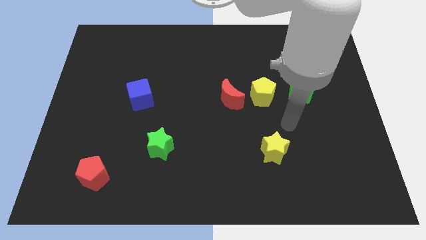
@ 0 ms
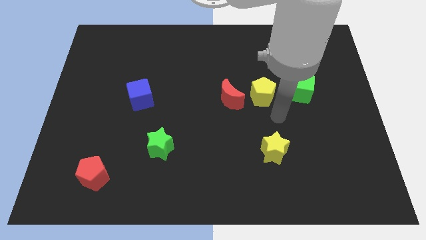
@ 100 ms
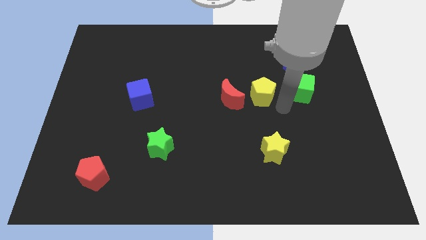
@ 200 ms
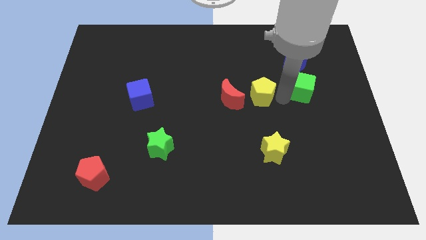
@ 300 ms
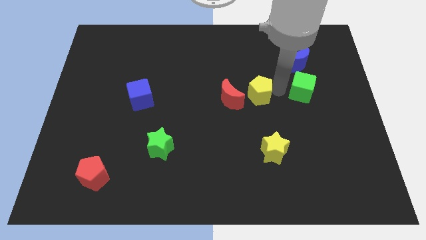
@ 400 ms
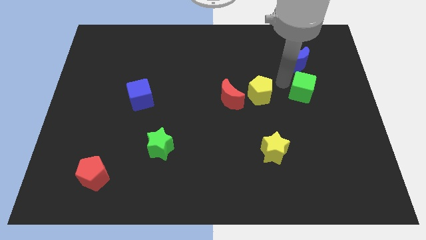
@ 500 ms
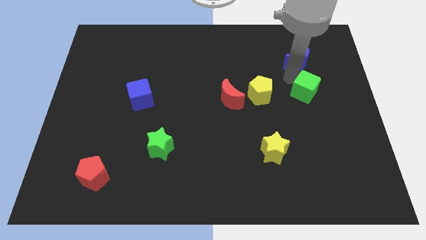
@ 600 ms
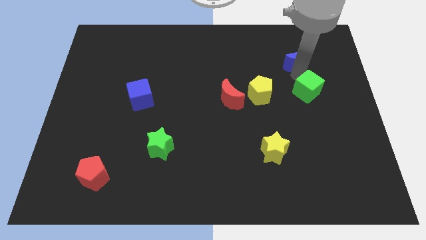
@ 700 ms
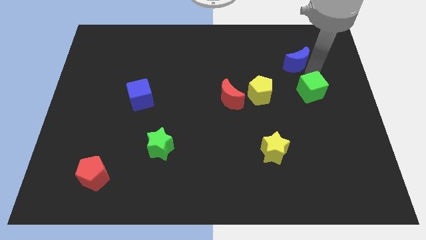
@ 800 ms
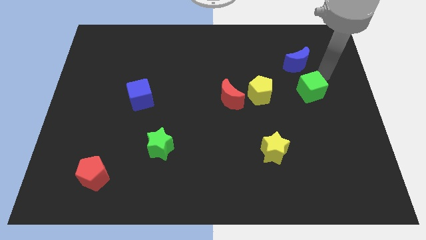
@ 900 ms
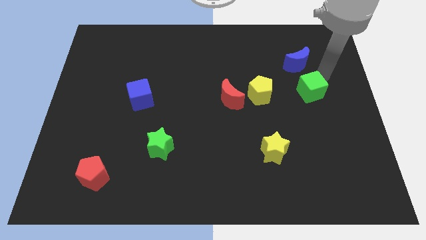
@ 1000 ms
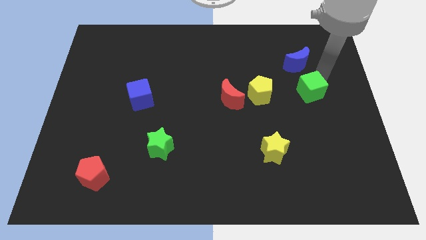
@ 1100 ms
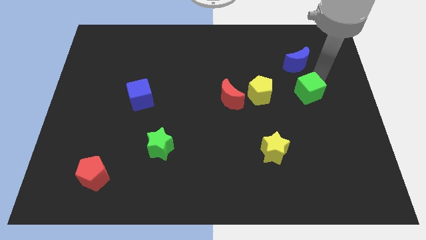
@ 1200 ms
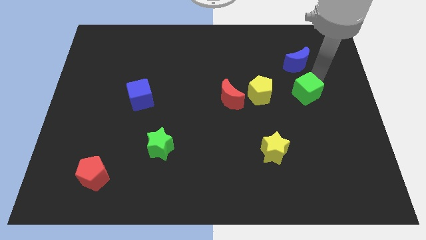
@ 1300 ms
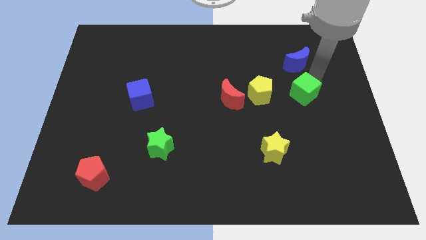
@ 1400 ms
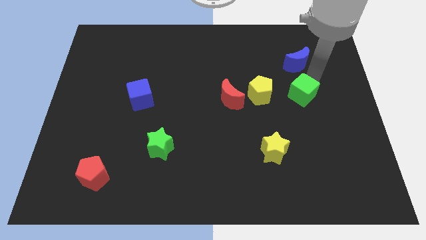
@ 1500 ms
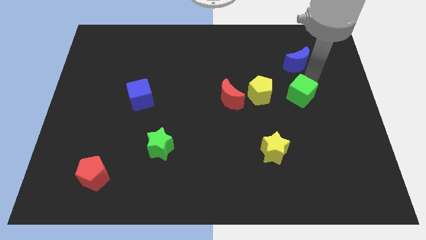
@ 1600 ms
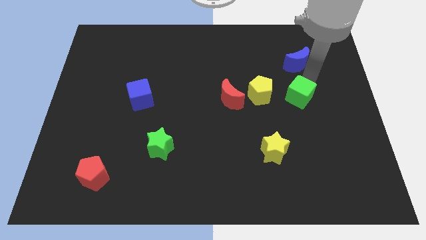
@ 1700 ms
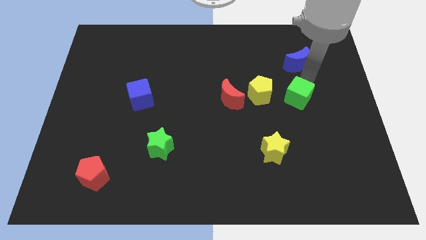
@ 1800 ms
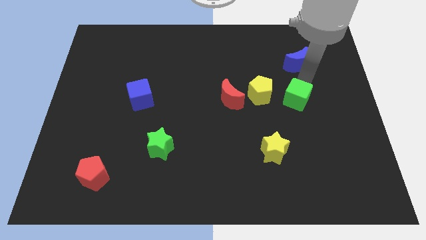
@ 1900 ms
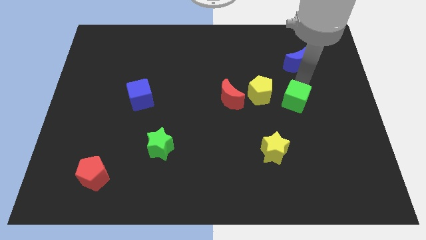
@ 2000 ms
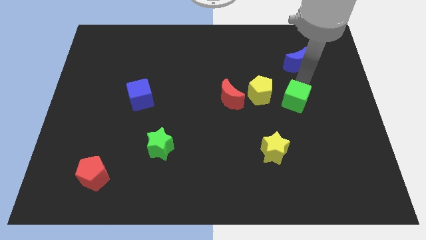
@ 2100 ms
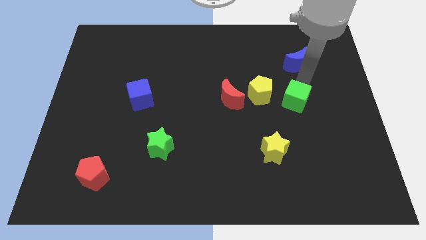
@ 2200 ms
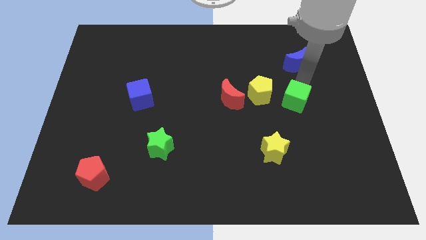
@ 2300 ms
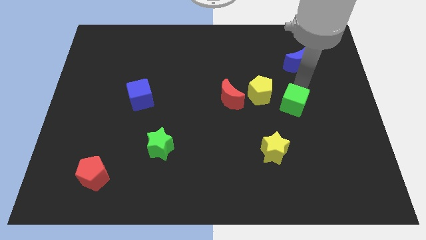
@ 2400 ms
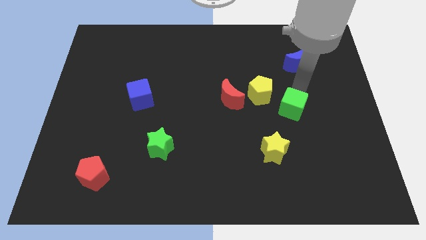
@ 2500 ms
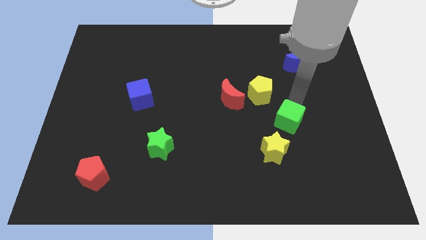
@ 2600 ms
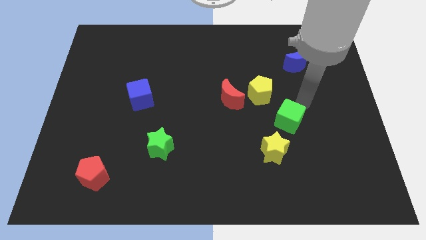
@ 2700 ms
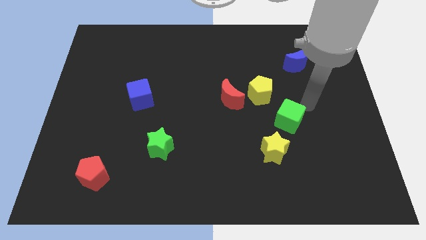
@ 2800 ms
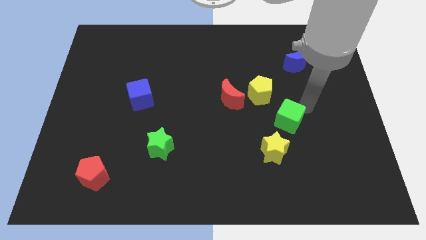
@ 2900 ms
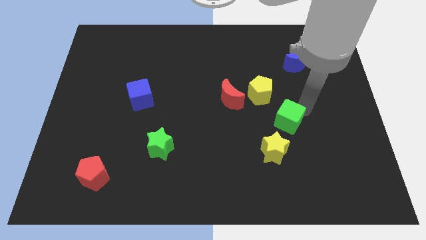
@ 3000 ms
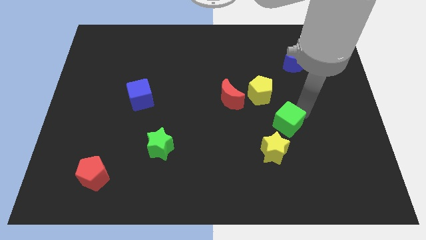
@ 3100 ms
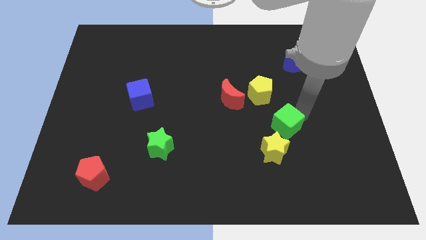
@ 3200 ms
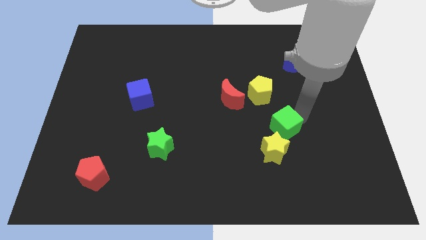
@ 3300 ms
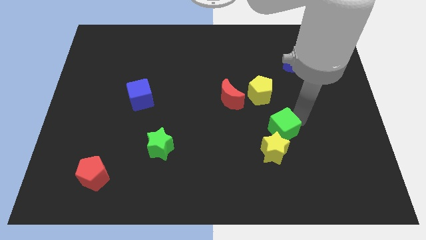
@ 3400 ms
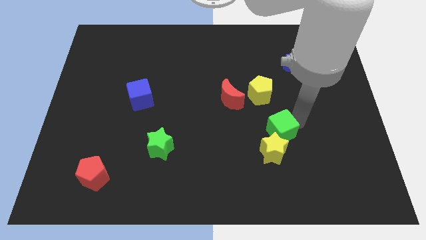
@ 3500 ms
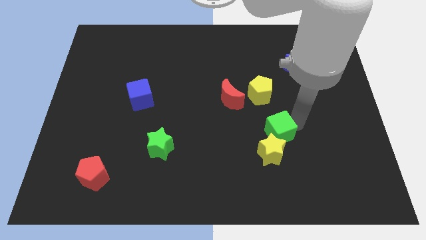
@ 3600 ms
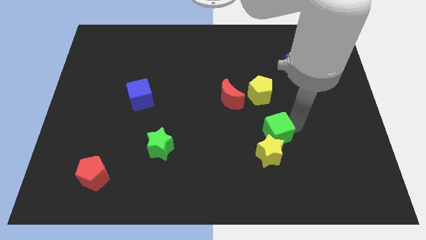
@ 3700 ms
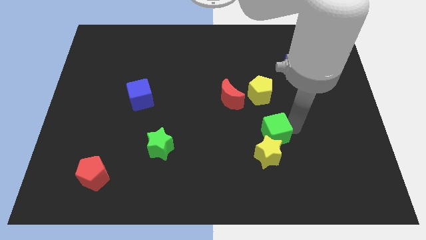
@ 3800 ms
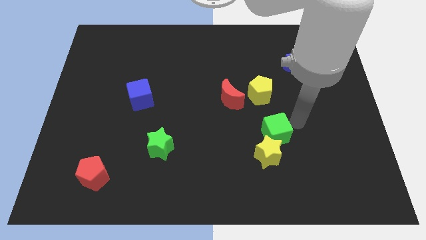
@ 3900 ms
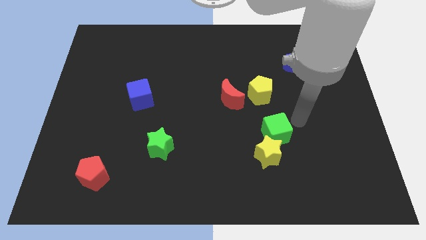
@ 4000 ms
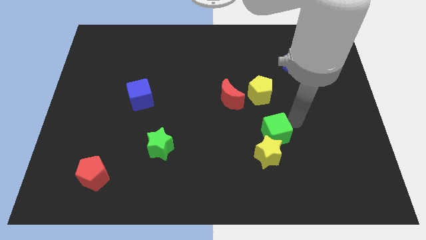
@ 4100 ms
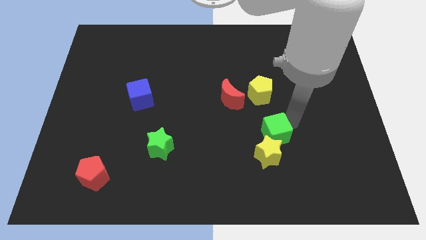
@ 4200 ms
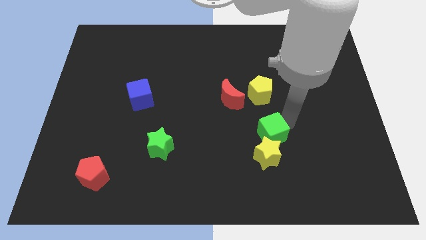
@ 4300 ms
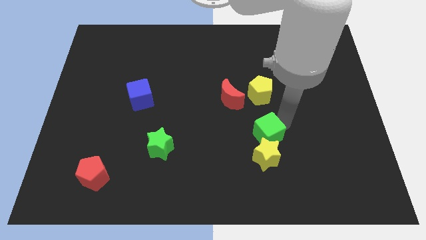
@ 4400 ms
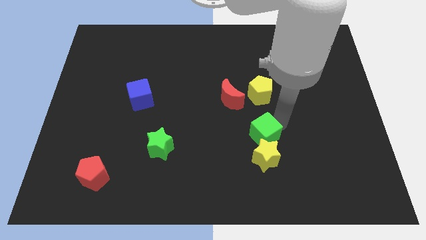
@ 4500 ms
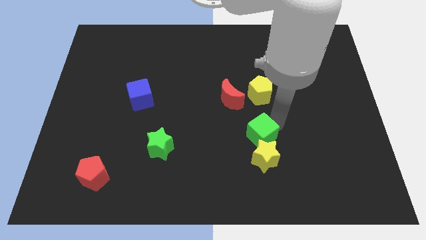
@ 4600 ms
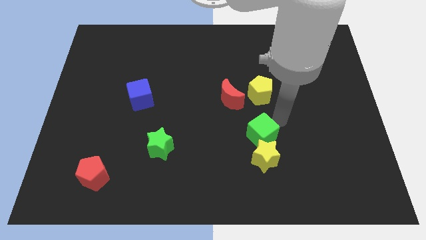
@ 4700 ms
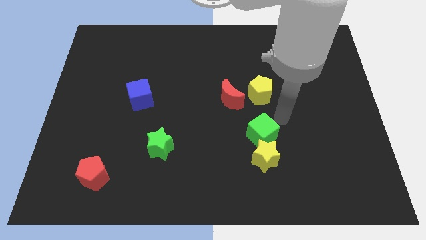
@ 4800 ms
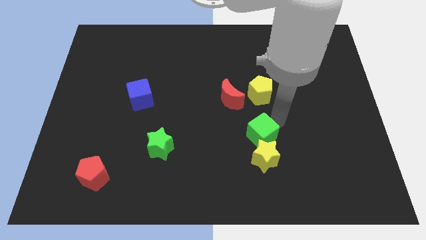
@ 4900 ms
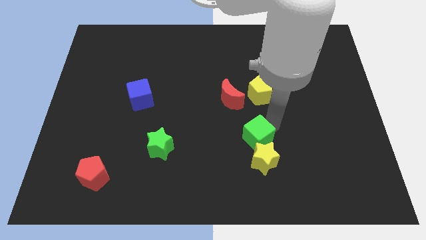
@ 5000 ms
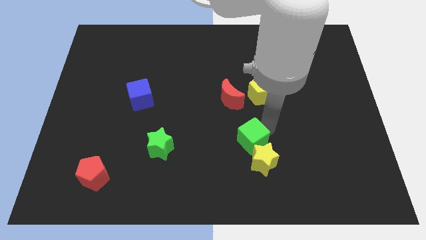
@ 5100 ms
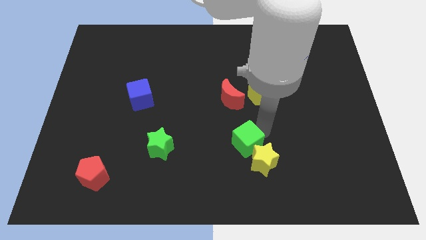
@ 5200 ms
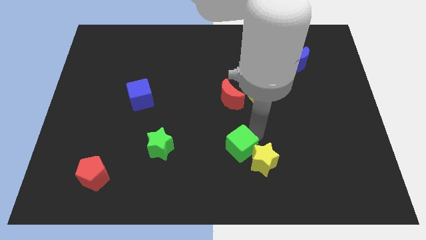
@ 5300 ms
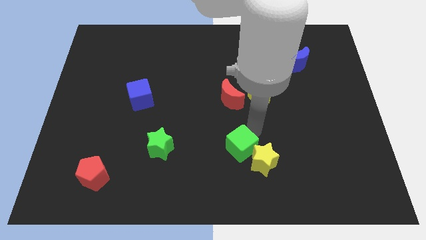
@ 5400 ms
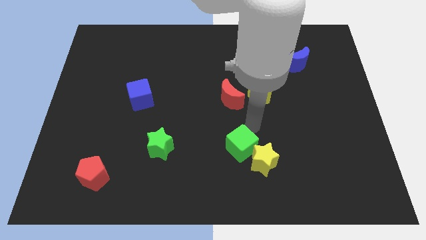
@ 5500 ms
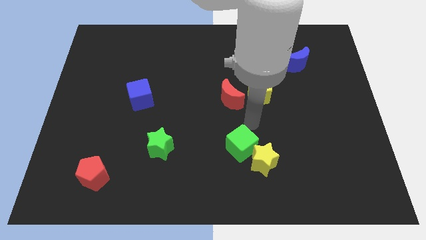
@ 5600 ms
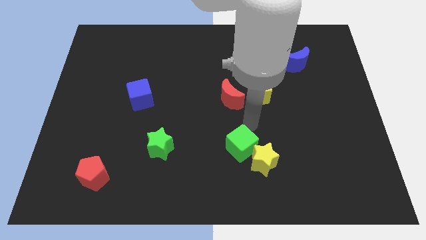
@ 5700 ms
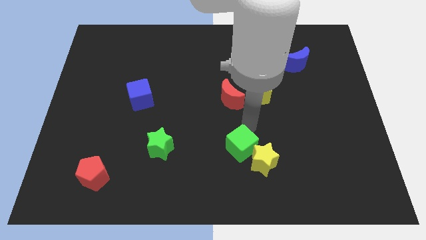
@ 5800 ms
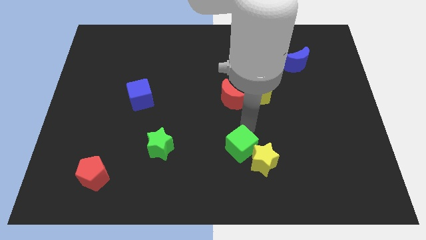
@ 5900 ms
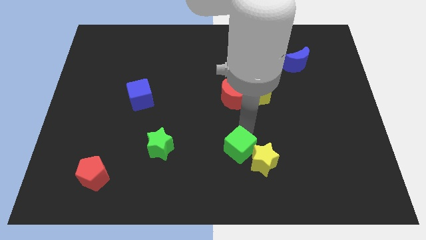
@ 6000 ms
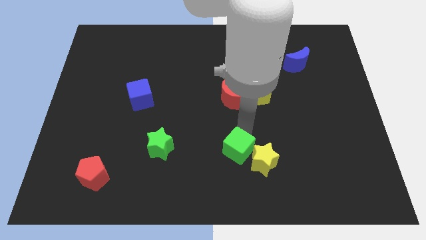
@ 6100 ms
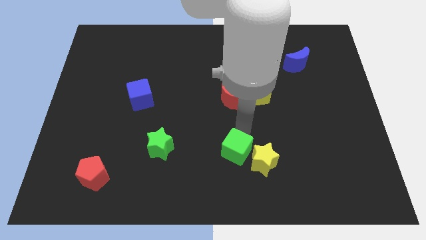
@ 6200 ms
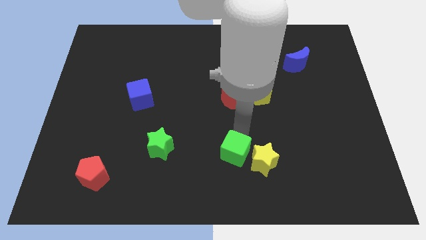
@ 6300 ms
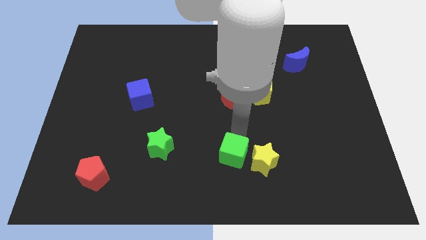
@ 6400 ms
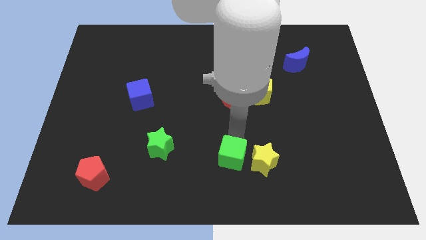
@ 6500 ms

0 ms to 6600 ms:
move the green cube to the bottom
